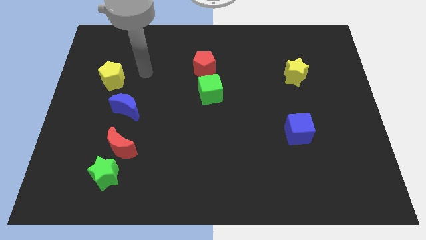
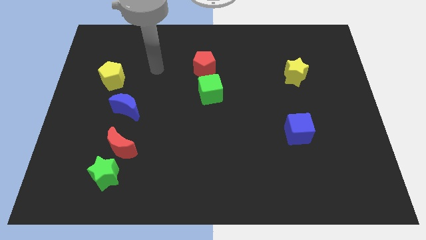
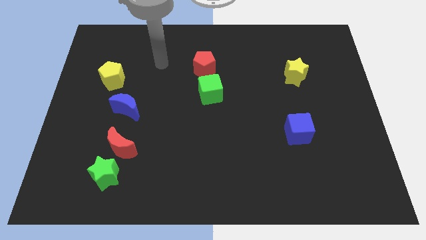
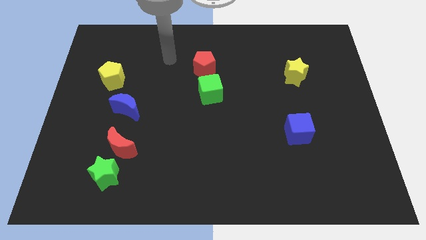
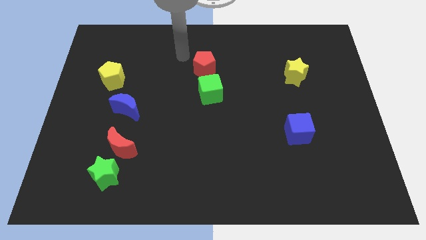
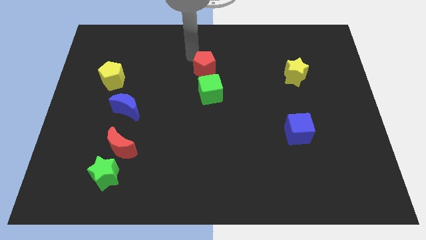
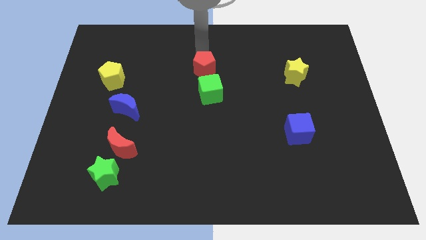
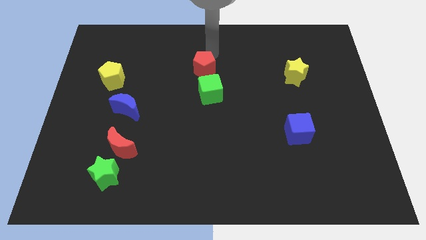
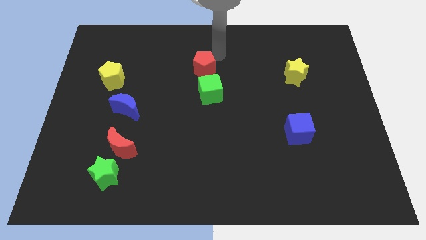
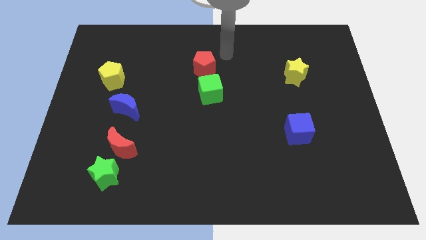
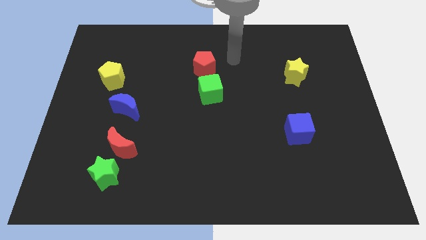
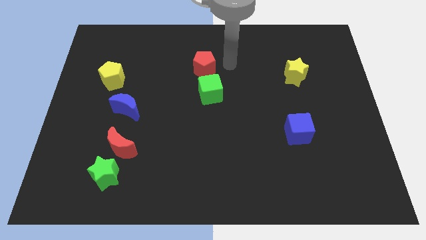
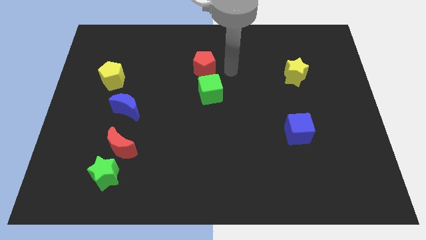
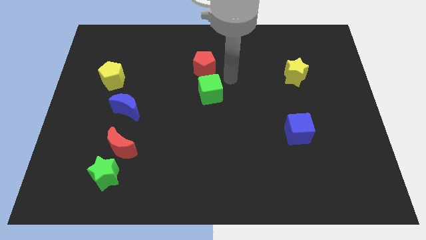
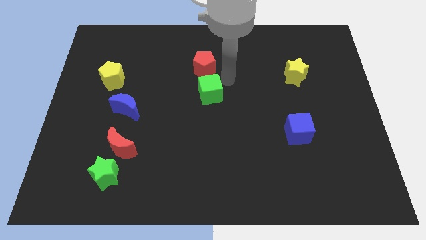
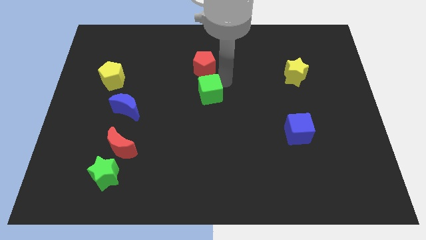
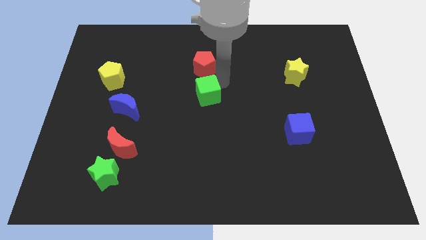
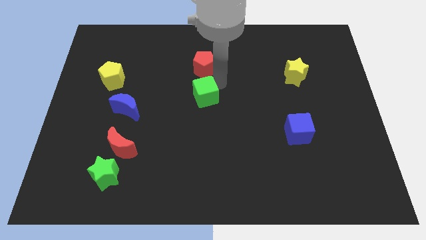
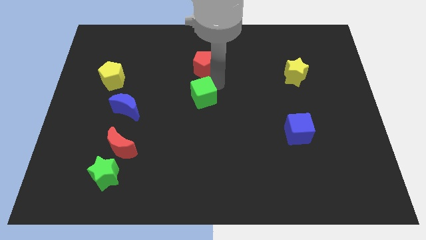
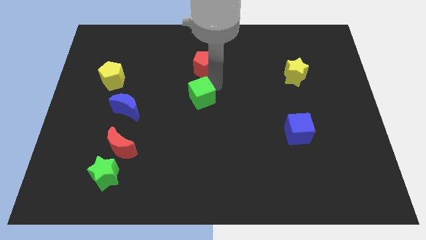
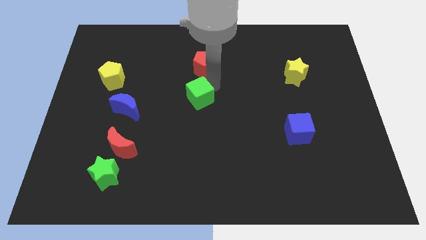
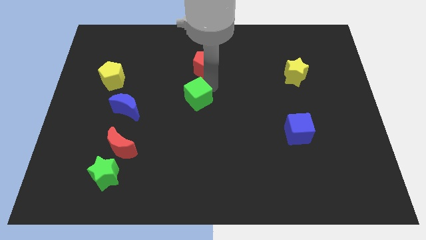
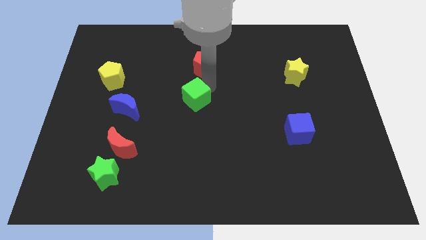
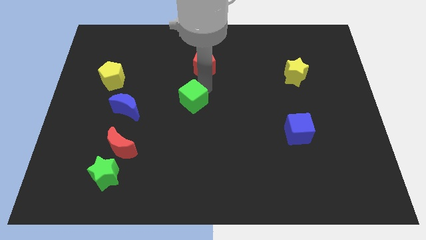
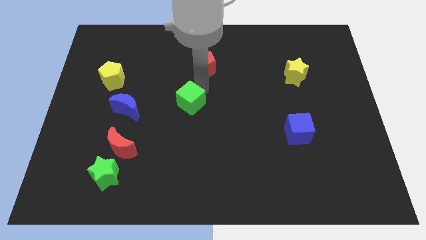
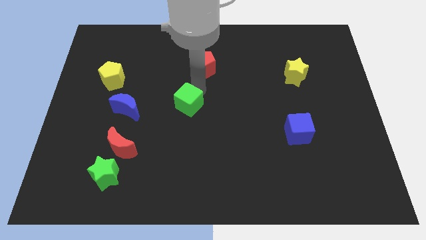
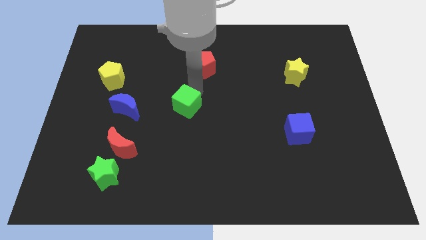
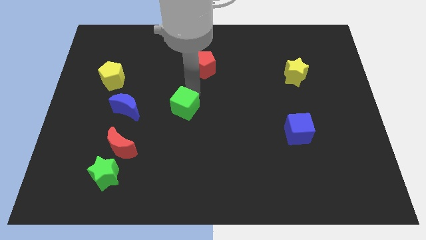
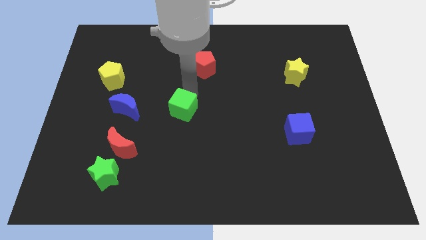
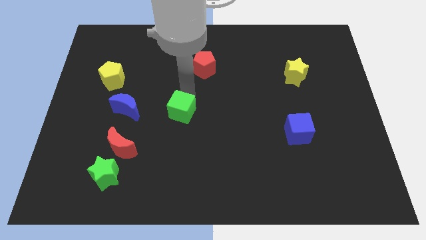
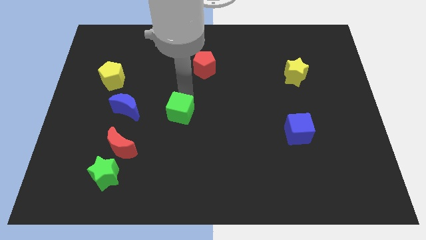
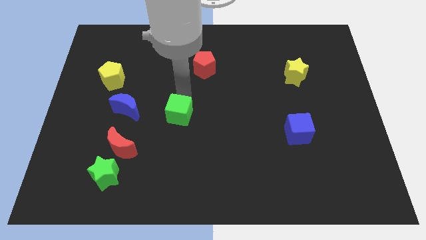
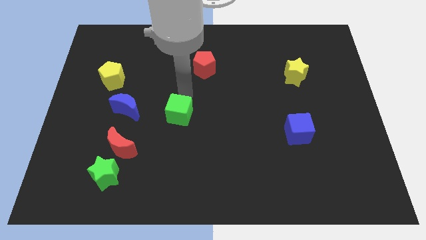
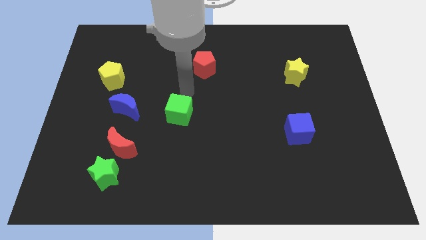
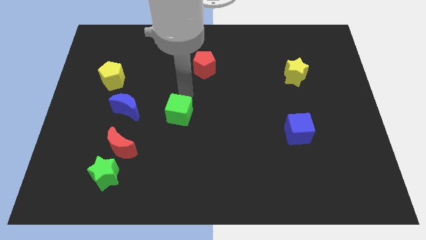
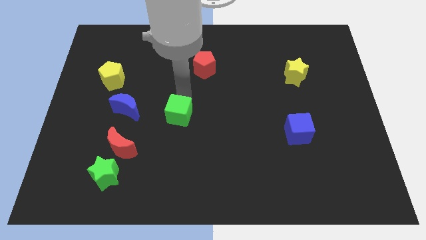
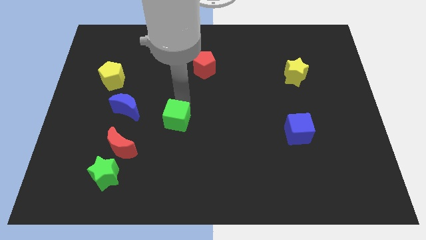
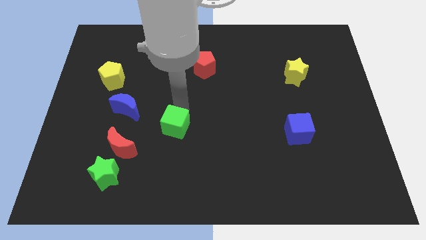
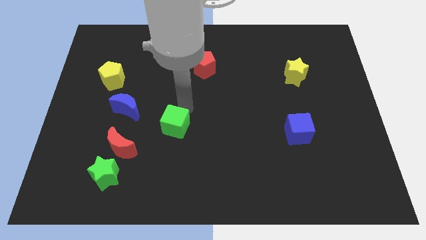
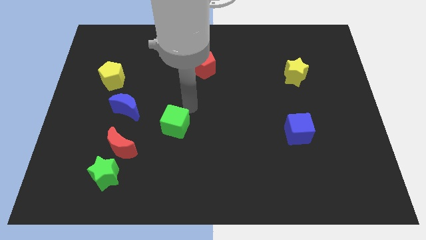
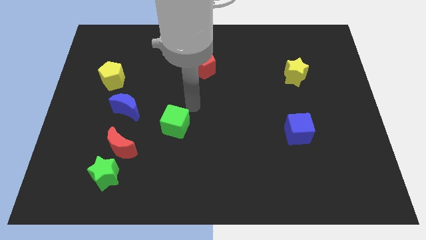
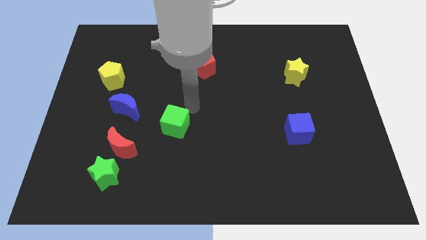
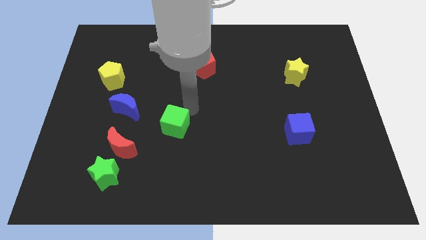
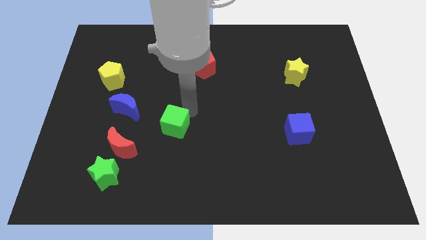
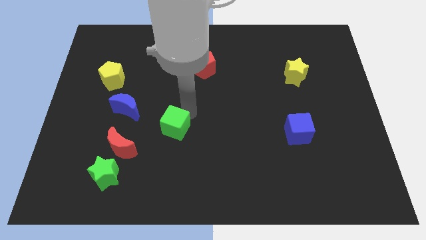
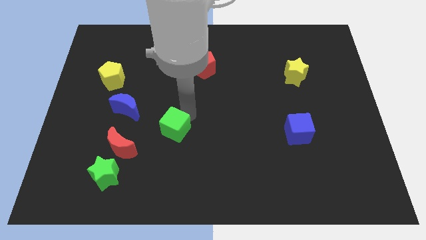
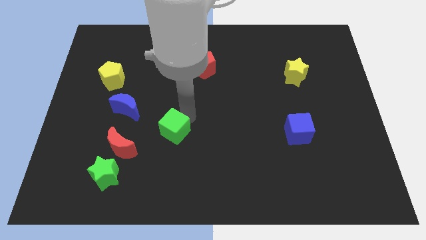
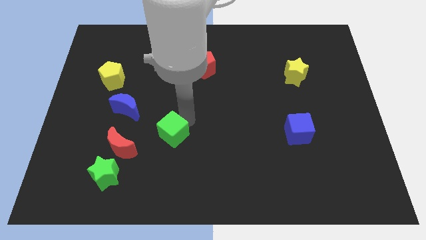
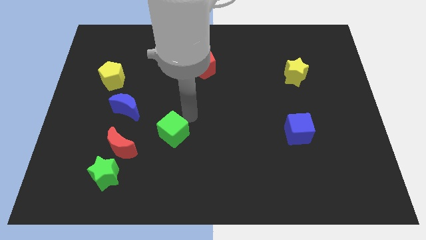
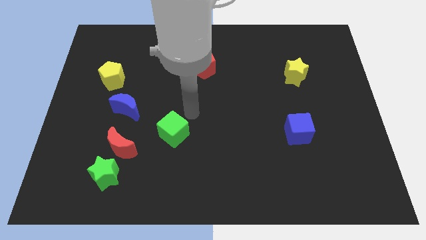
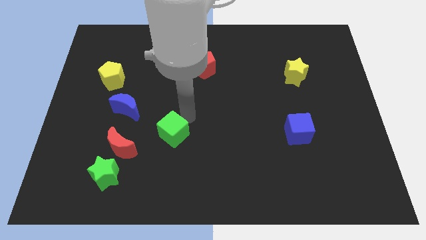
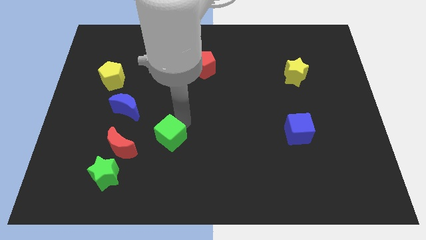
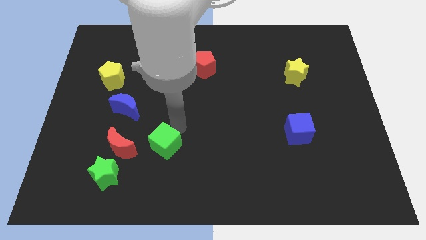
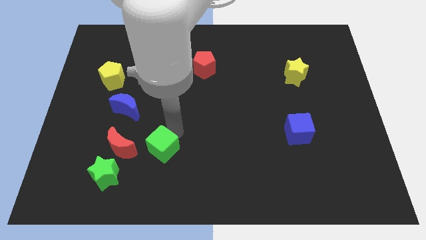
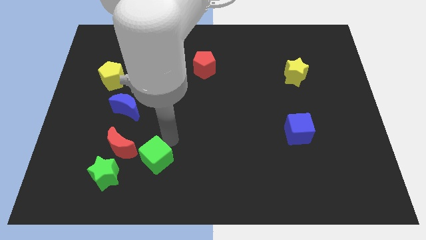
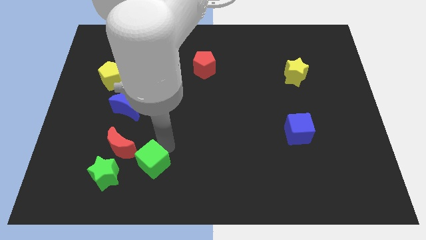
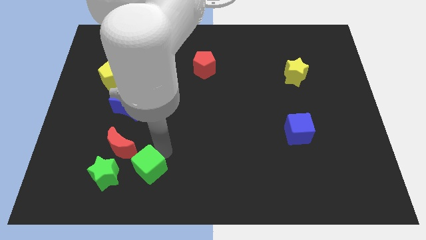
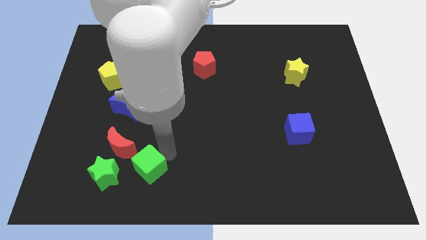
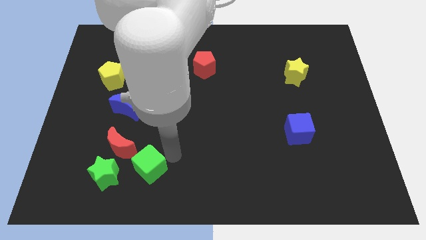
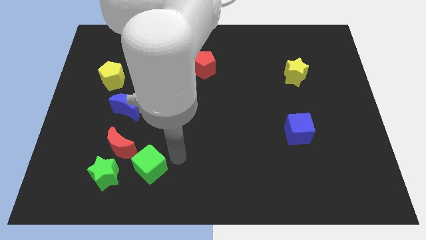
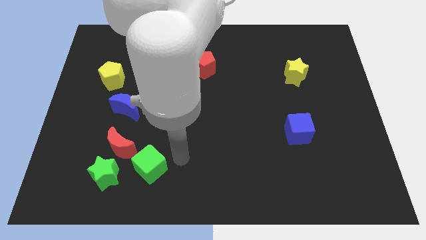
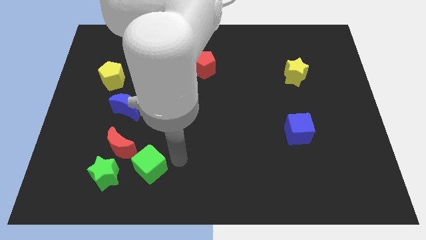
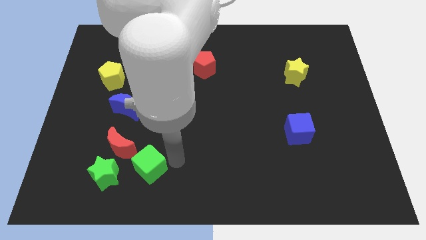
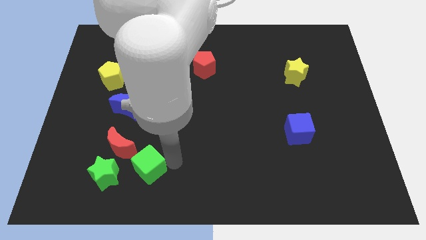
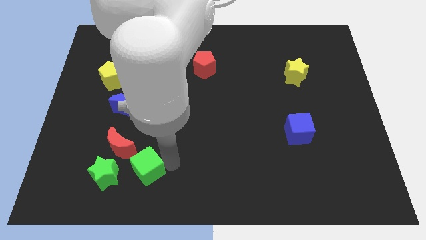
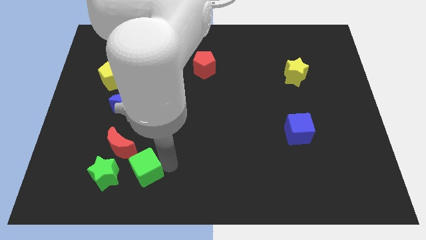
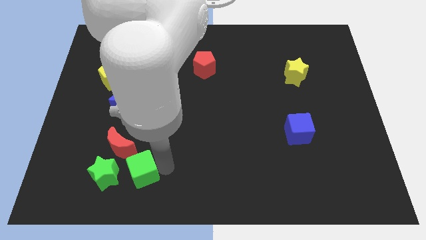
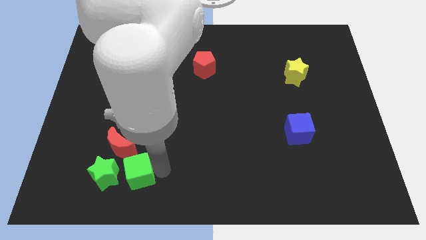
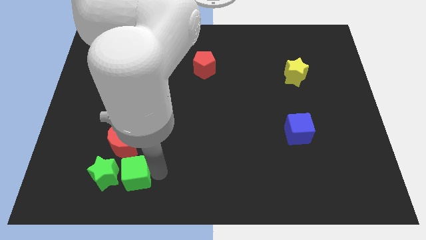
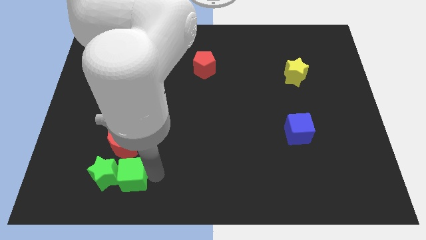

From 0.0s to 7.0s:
move the green cube next to the green star

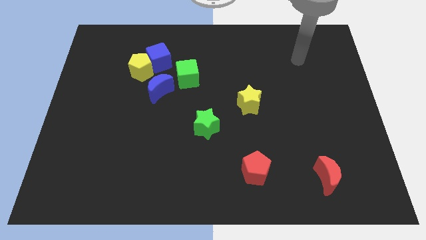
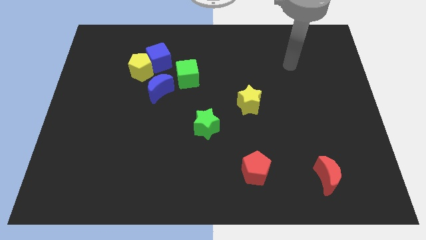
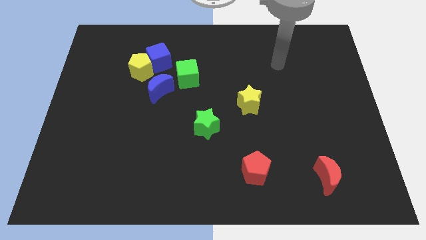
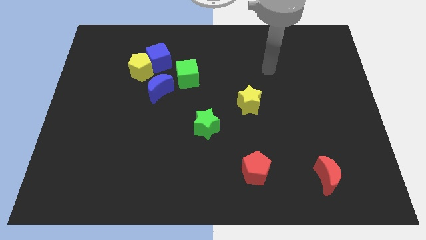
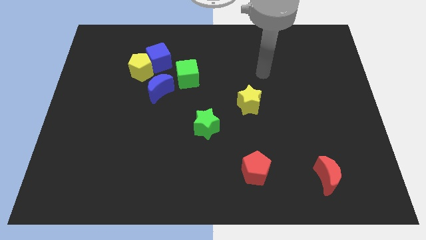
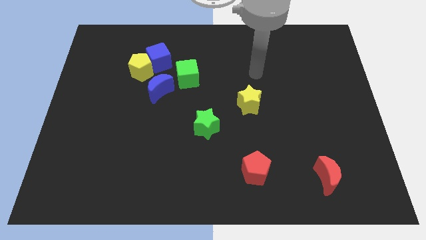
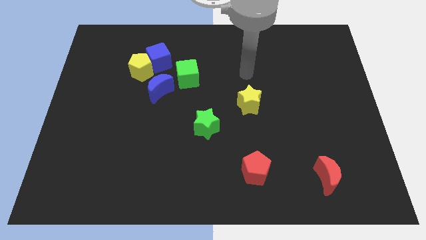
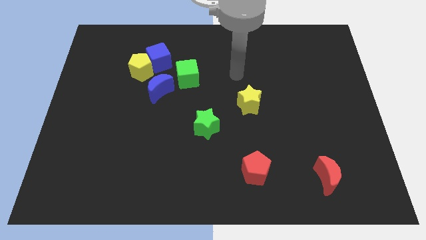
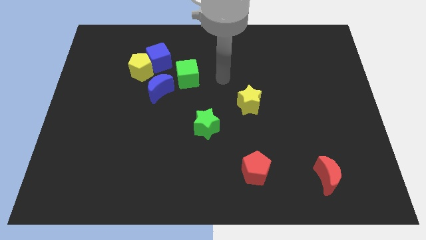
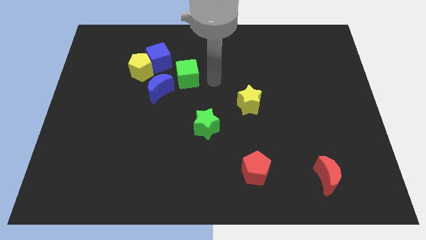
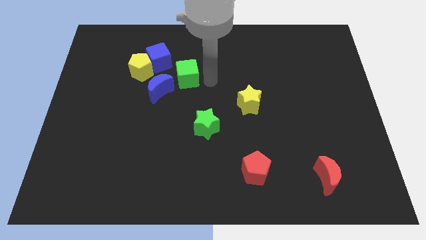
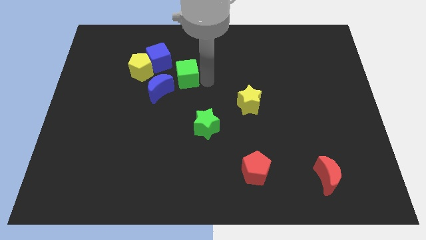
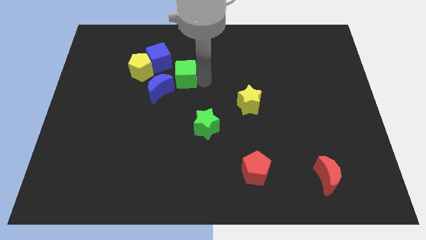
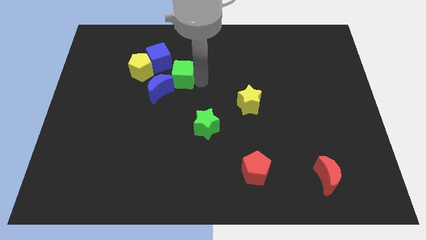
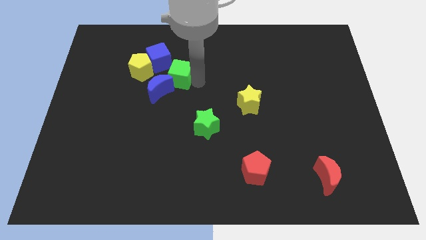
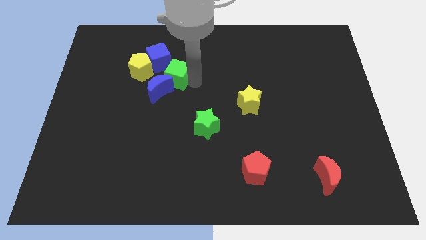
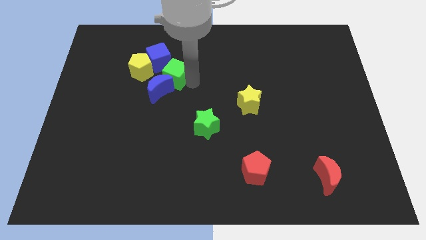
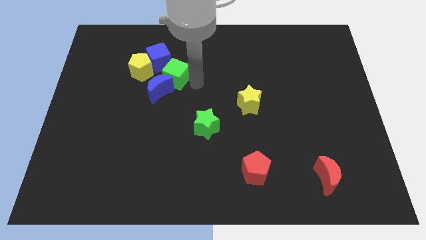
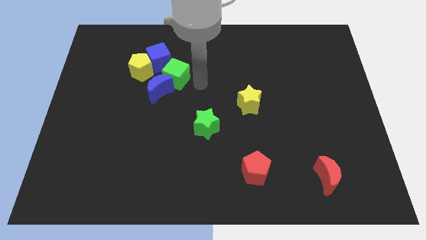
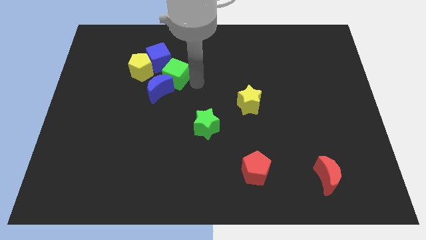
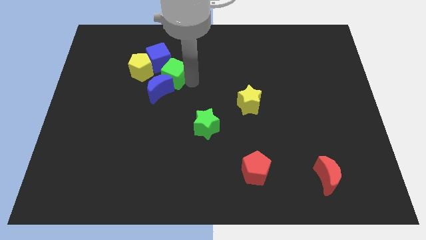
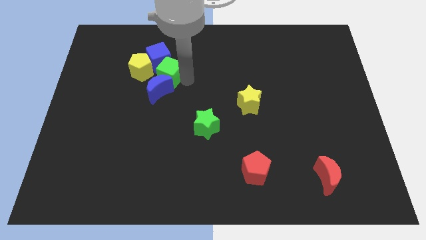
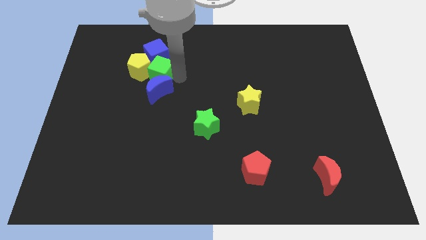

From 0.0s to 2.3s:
slide the green cube next to the yellow pentagon
